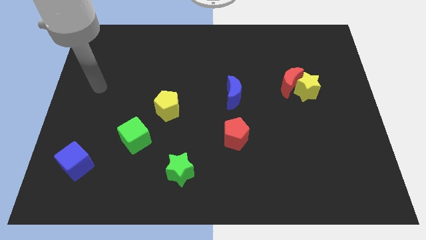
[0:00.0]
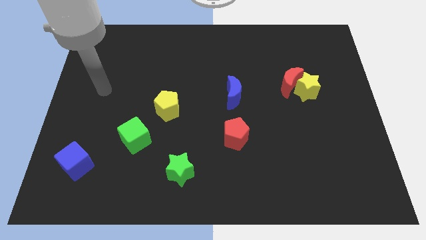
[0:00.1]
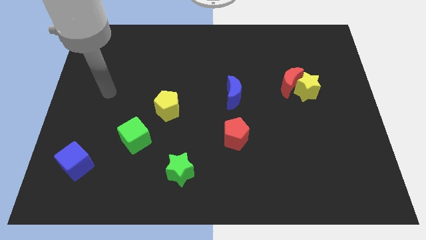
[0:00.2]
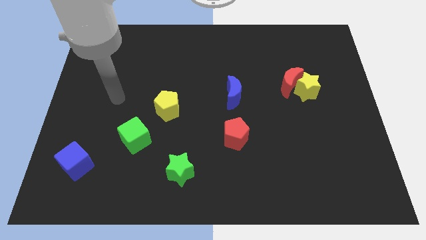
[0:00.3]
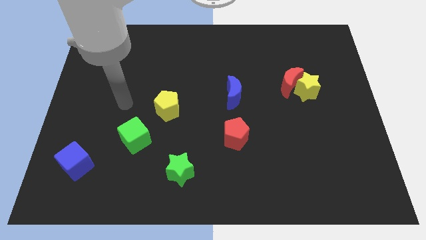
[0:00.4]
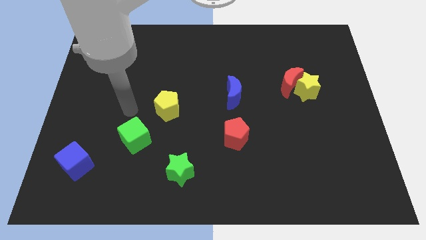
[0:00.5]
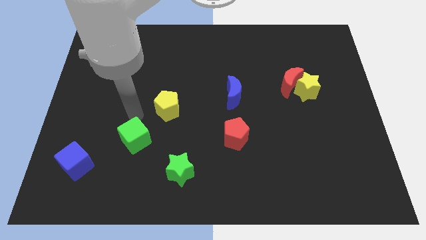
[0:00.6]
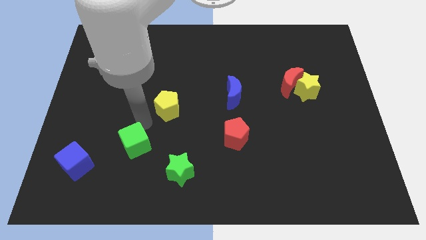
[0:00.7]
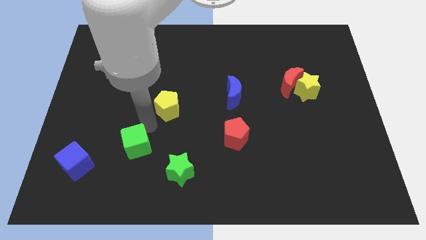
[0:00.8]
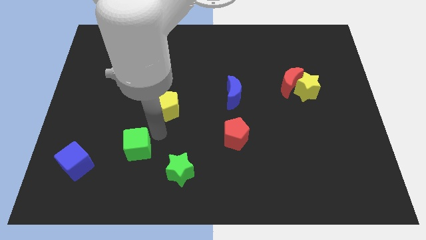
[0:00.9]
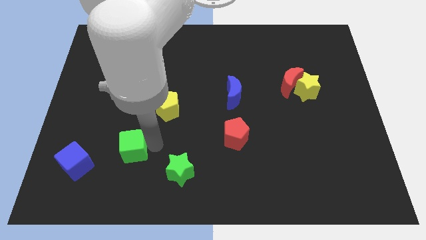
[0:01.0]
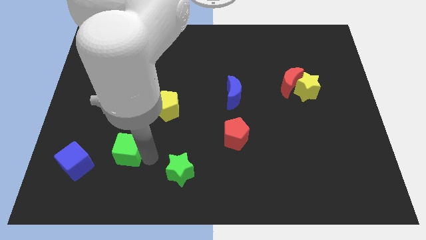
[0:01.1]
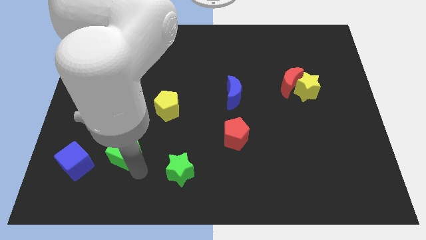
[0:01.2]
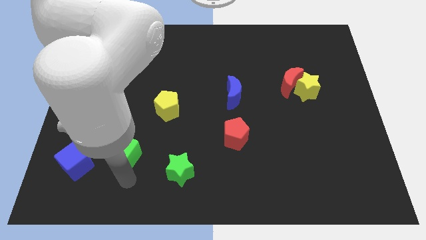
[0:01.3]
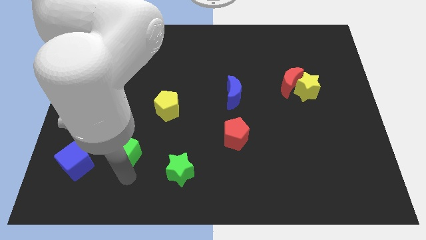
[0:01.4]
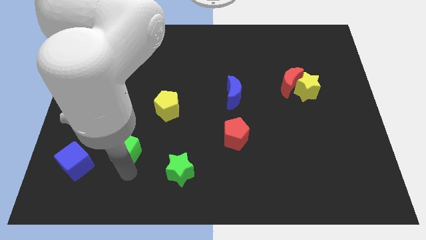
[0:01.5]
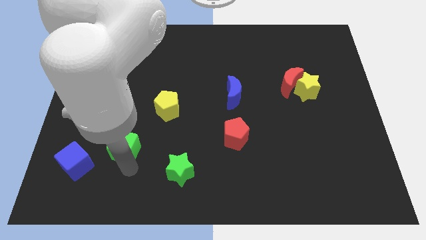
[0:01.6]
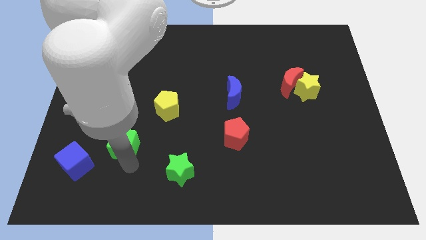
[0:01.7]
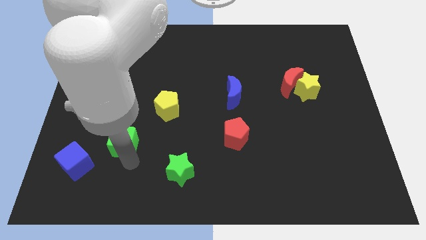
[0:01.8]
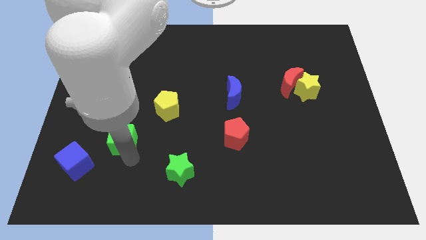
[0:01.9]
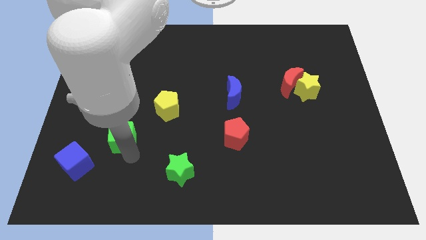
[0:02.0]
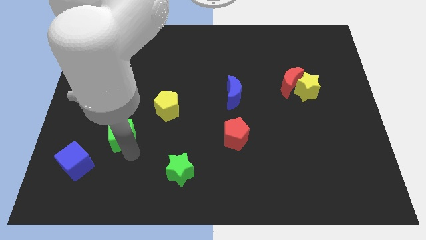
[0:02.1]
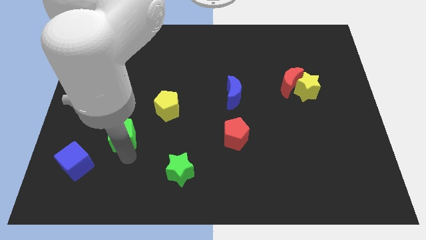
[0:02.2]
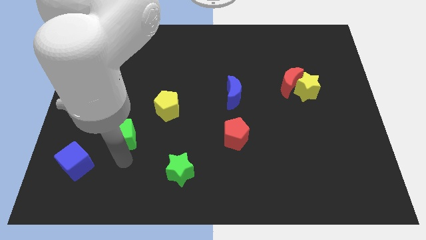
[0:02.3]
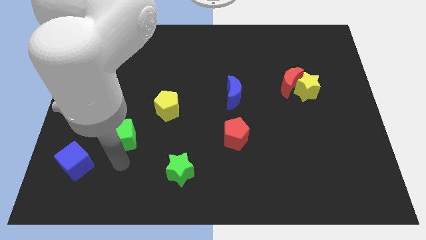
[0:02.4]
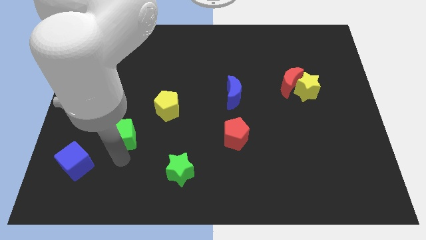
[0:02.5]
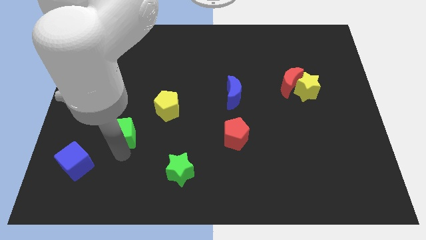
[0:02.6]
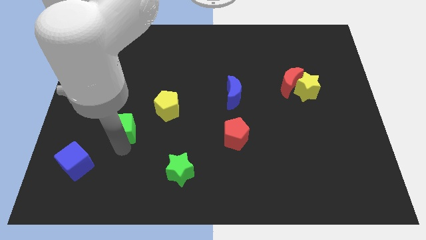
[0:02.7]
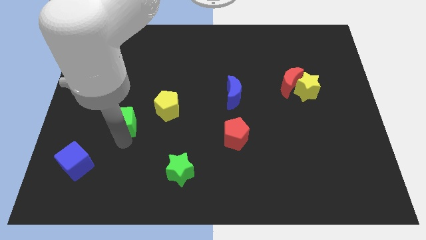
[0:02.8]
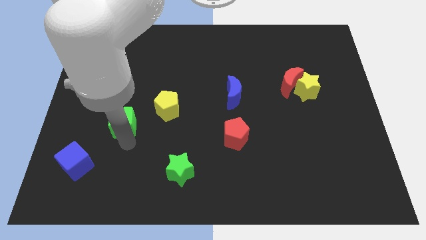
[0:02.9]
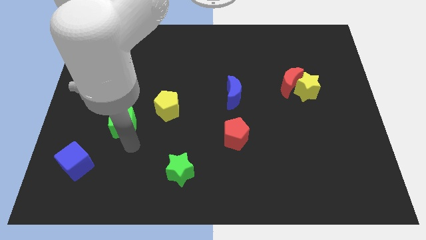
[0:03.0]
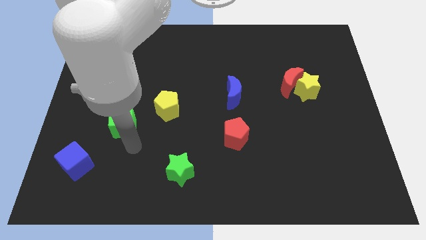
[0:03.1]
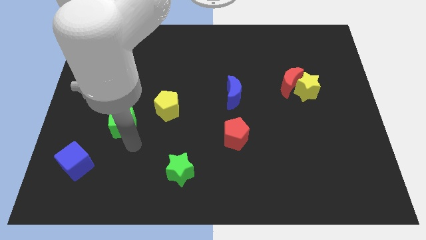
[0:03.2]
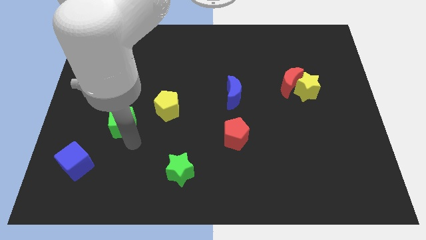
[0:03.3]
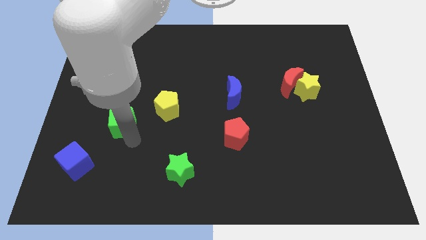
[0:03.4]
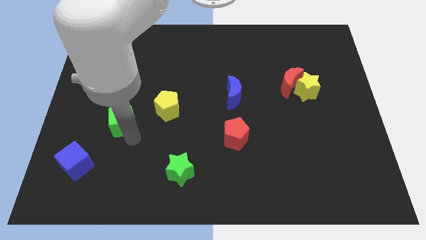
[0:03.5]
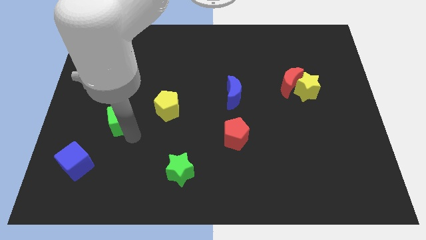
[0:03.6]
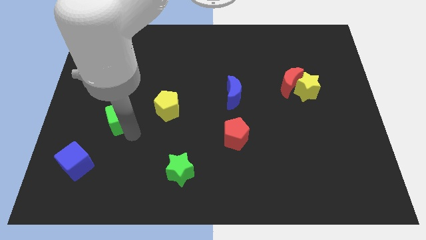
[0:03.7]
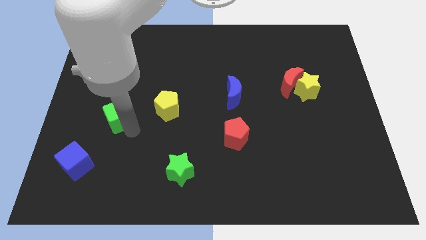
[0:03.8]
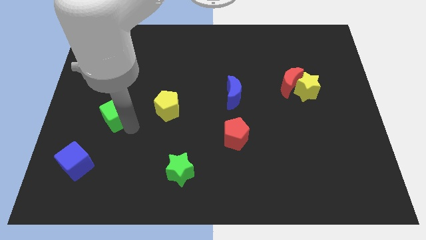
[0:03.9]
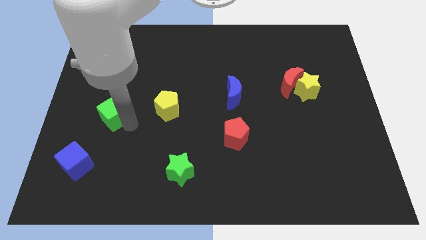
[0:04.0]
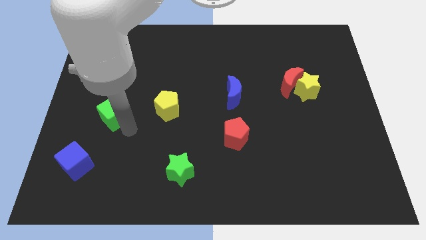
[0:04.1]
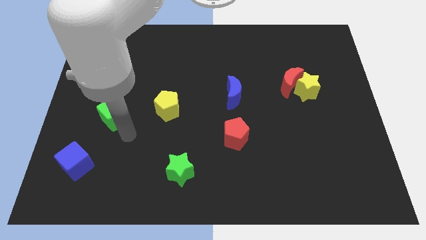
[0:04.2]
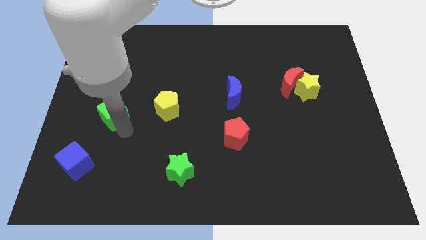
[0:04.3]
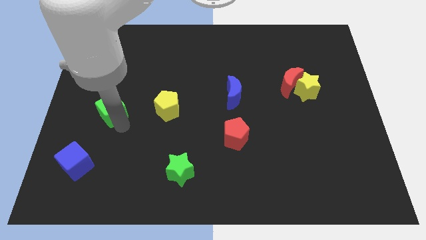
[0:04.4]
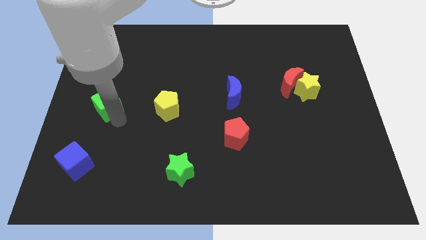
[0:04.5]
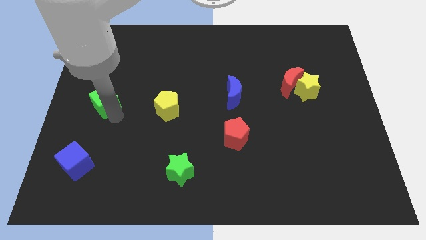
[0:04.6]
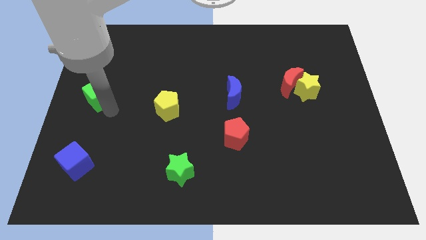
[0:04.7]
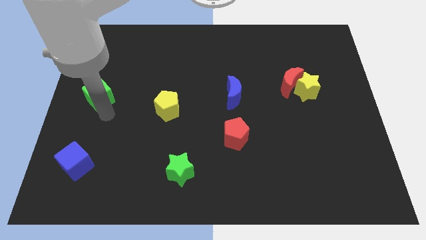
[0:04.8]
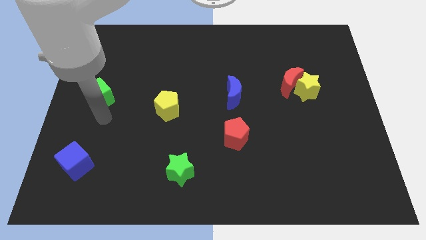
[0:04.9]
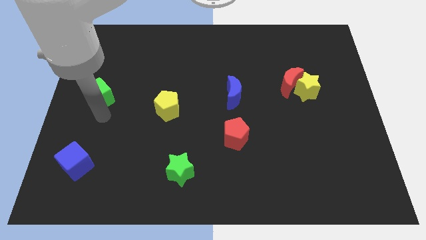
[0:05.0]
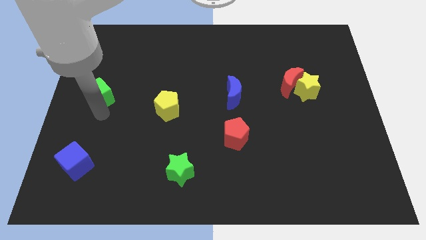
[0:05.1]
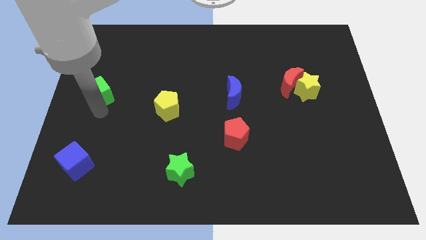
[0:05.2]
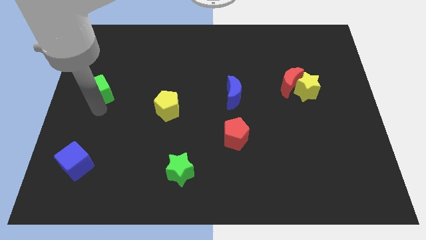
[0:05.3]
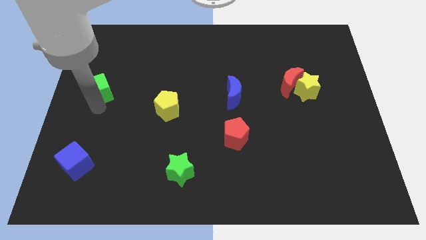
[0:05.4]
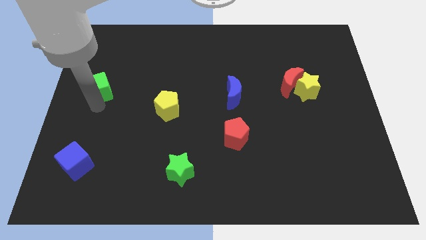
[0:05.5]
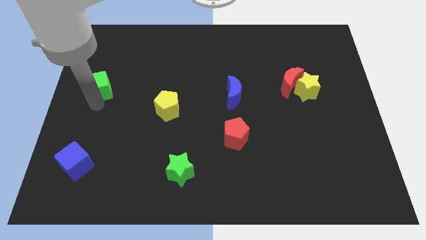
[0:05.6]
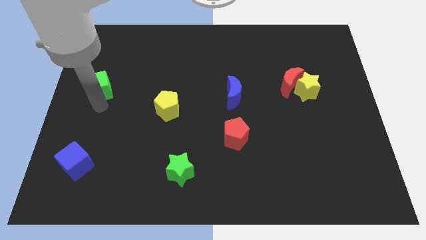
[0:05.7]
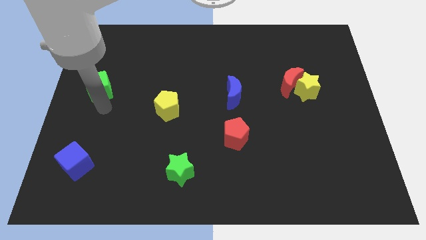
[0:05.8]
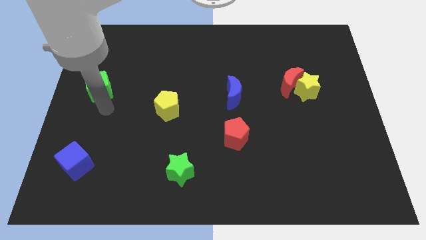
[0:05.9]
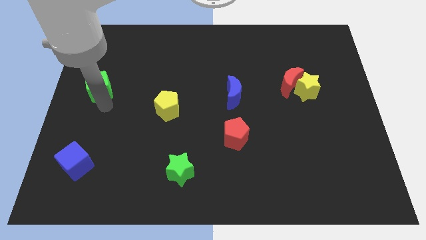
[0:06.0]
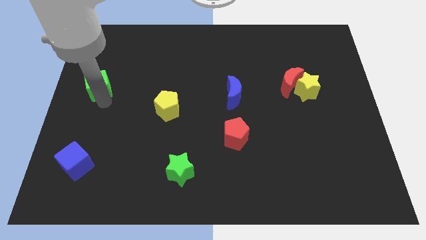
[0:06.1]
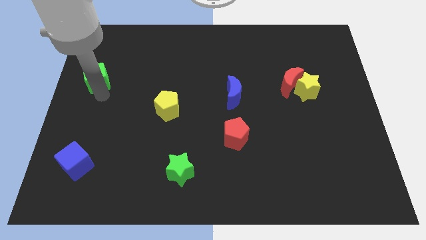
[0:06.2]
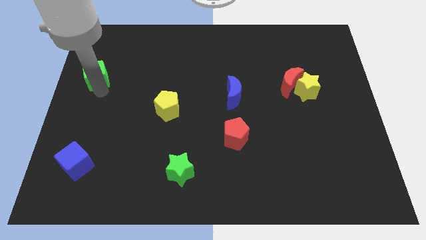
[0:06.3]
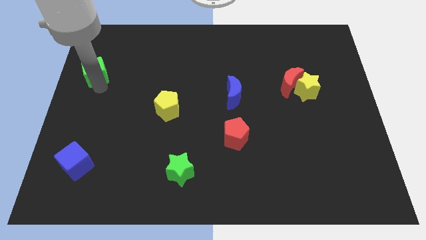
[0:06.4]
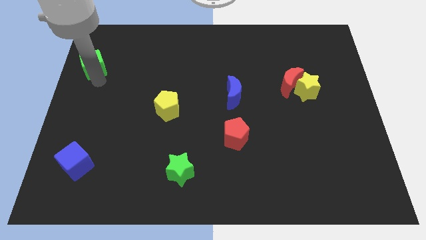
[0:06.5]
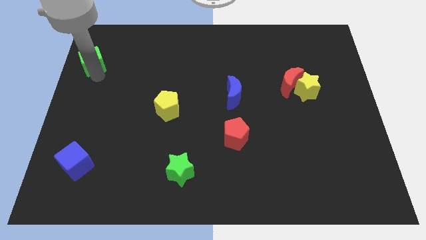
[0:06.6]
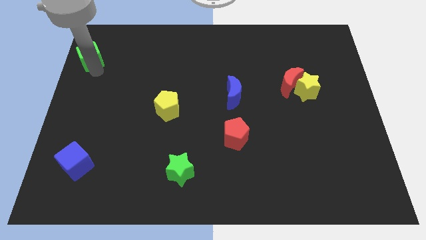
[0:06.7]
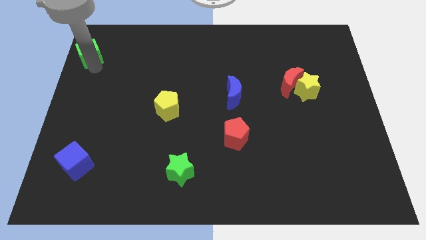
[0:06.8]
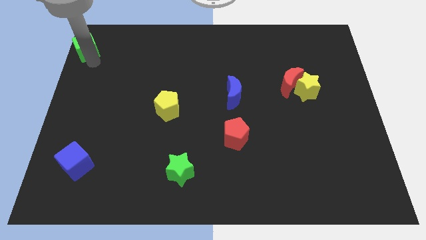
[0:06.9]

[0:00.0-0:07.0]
move the green cube to the upper left corner
